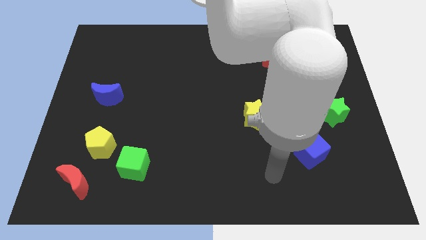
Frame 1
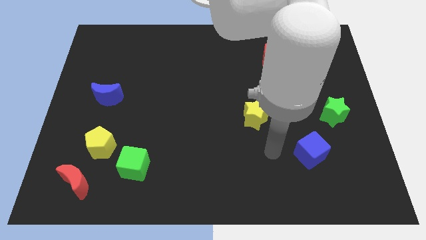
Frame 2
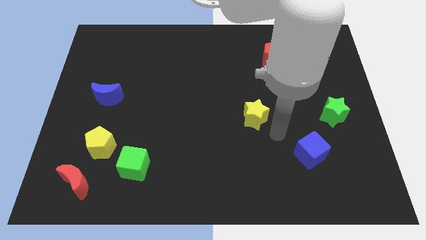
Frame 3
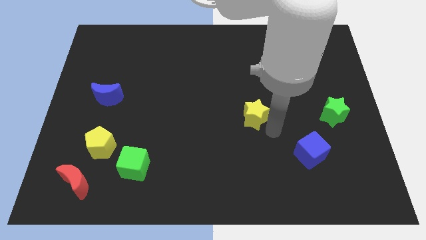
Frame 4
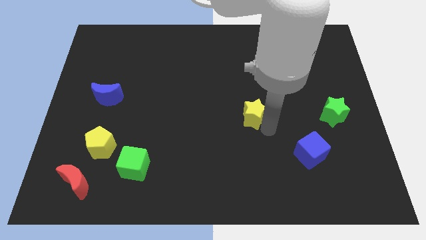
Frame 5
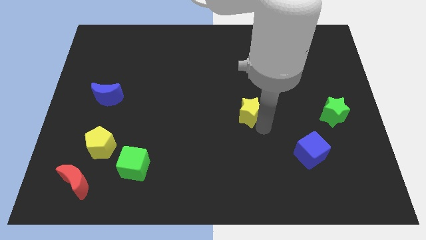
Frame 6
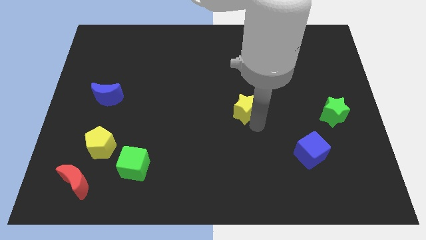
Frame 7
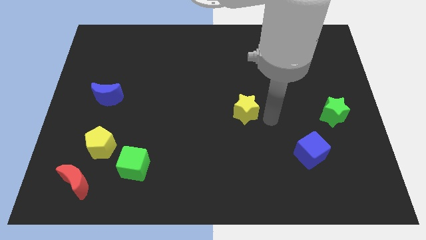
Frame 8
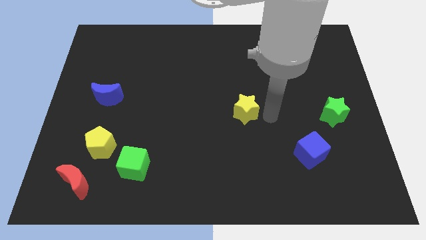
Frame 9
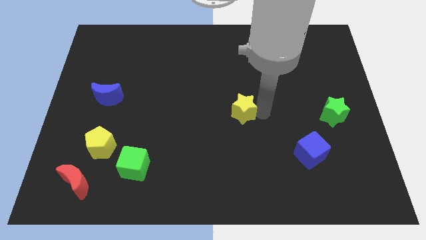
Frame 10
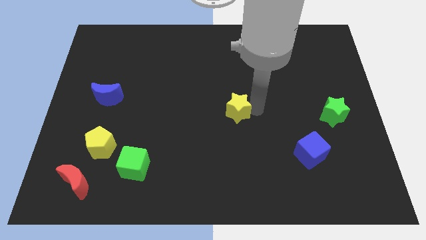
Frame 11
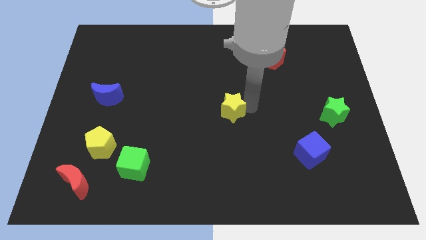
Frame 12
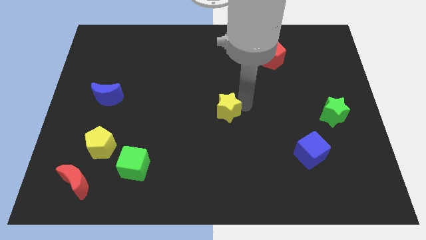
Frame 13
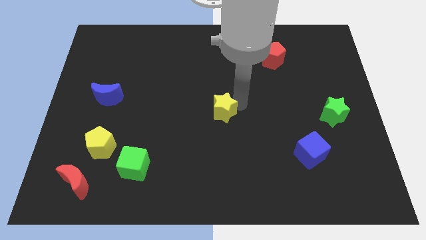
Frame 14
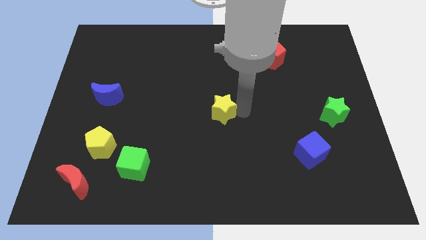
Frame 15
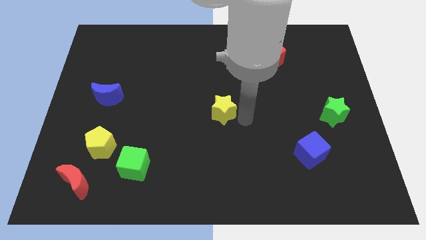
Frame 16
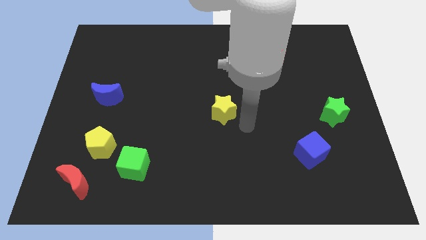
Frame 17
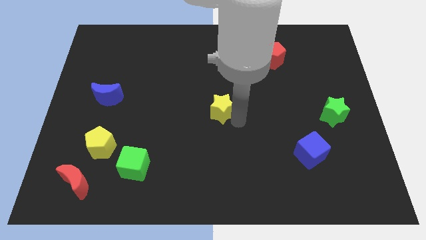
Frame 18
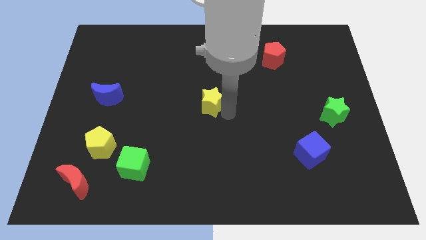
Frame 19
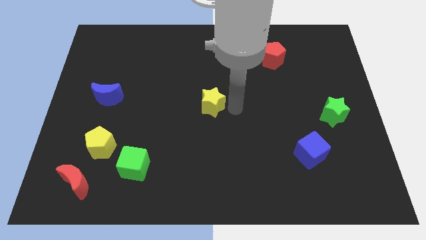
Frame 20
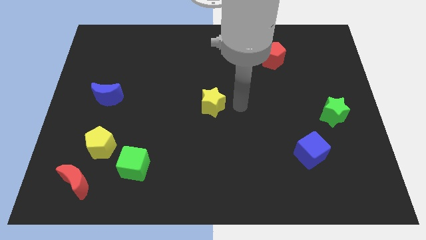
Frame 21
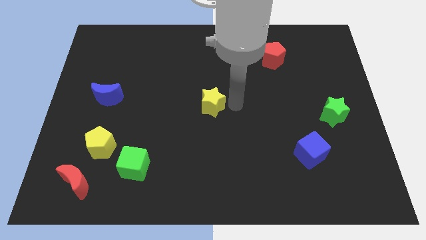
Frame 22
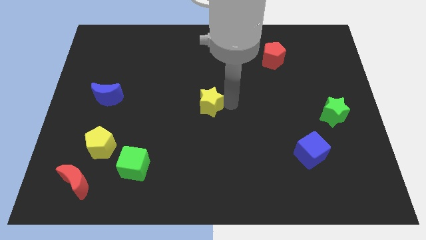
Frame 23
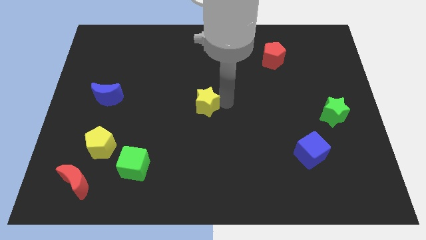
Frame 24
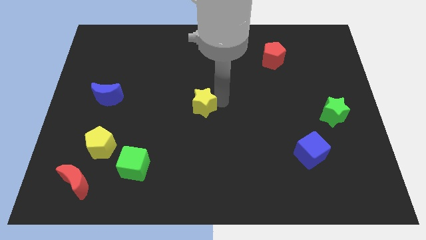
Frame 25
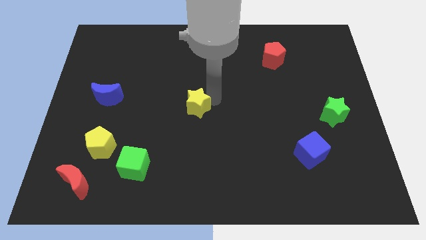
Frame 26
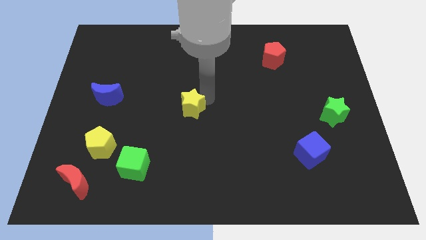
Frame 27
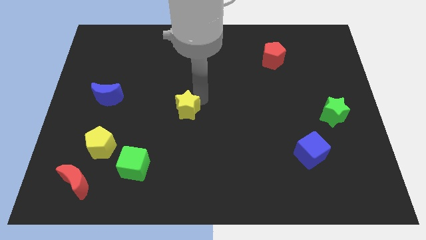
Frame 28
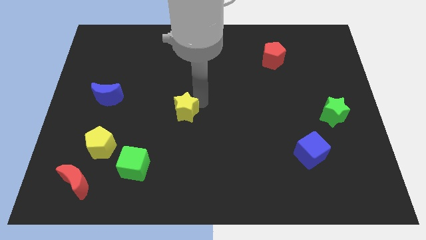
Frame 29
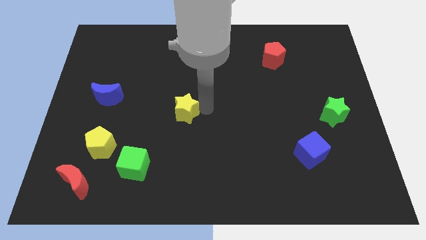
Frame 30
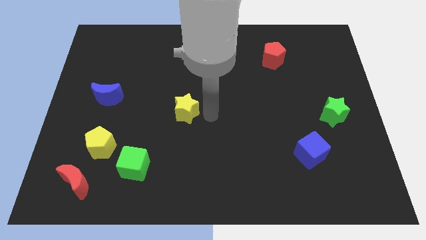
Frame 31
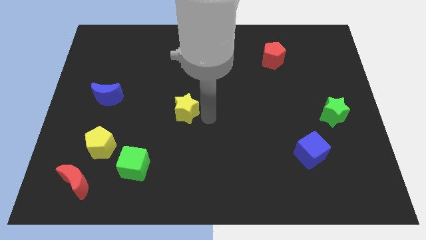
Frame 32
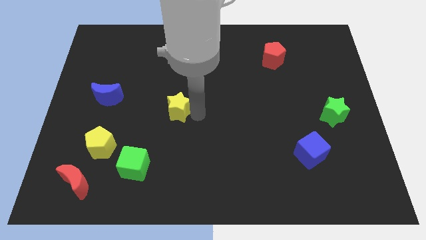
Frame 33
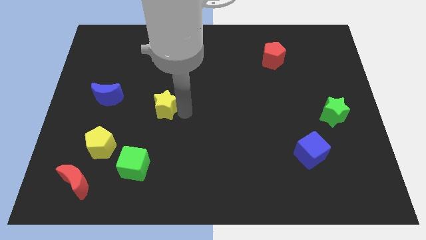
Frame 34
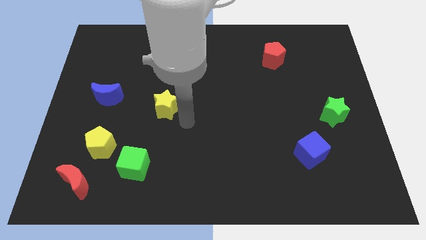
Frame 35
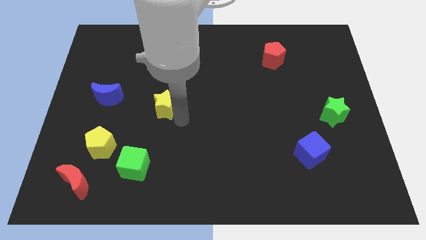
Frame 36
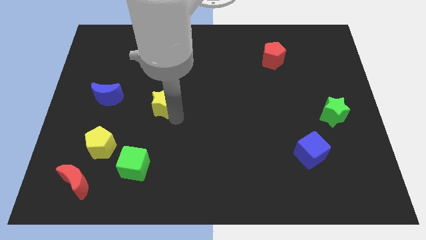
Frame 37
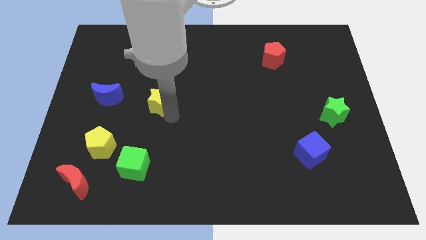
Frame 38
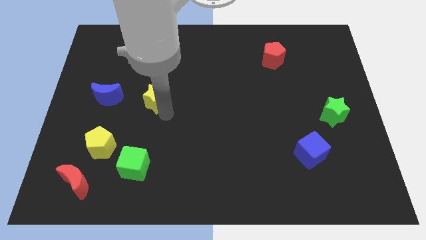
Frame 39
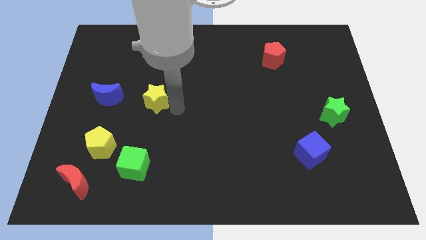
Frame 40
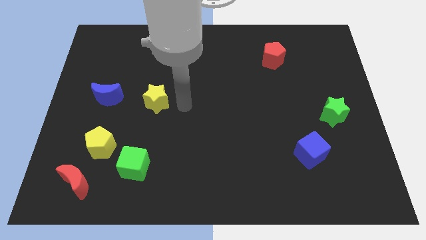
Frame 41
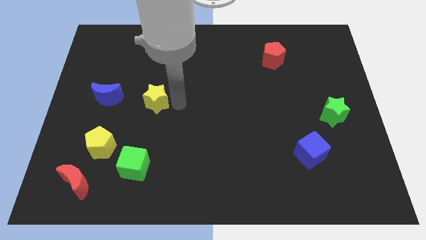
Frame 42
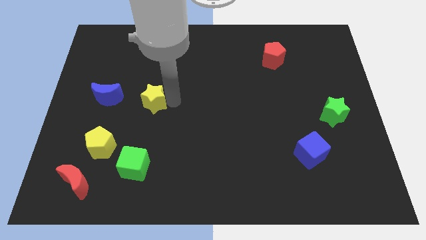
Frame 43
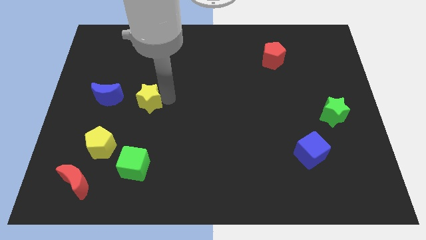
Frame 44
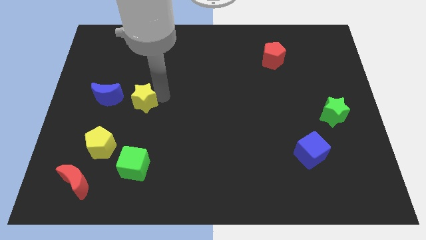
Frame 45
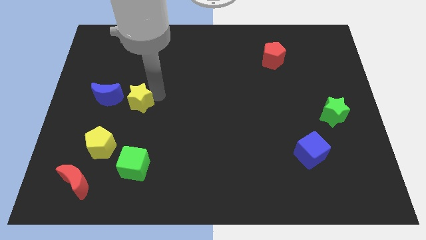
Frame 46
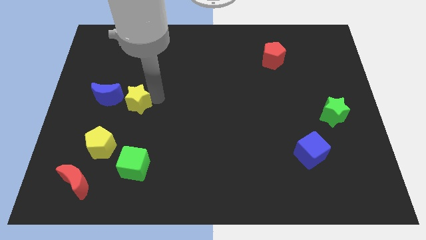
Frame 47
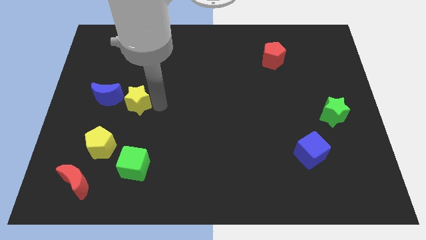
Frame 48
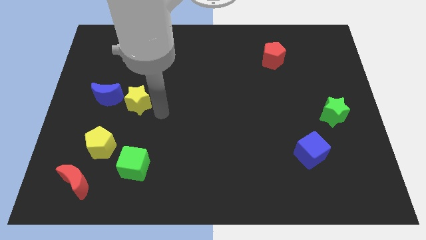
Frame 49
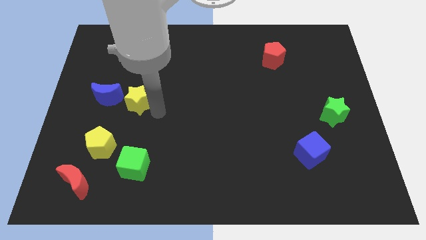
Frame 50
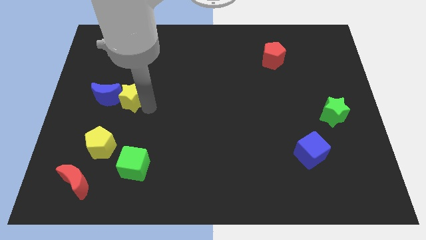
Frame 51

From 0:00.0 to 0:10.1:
put the yellow star to the blue moon

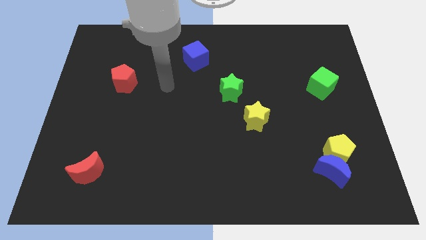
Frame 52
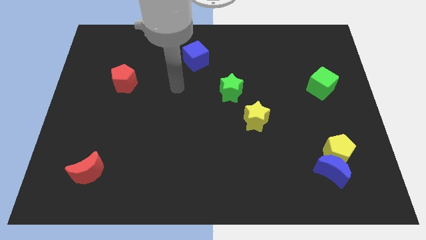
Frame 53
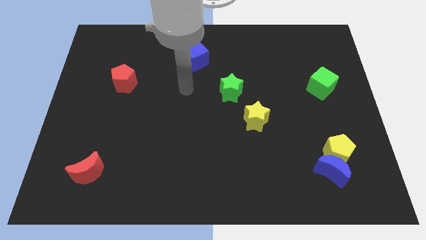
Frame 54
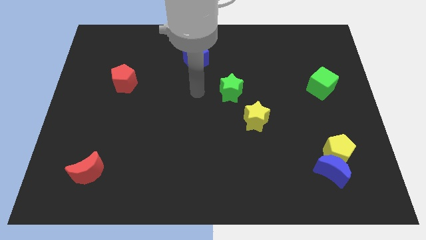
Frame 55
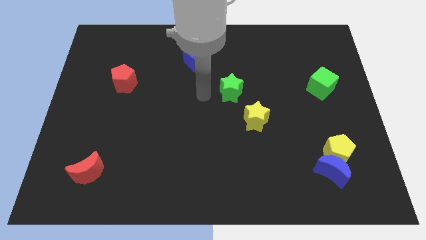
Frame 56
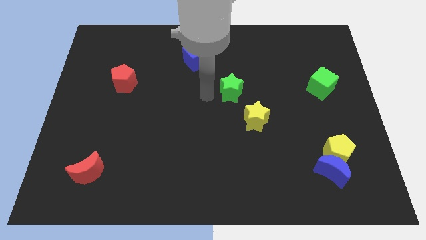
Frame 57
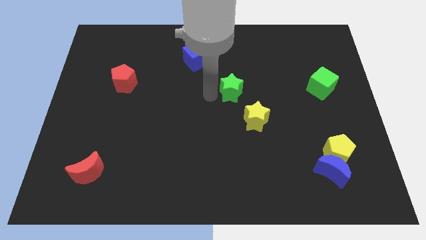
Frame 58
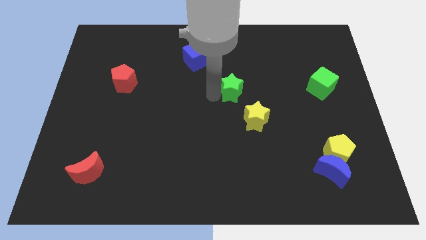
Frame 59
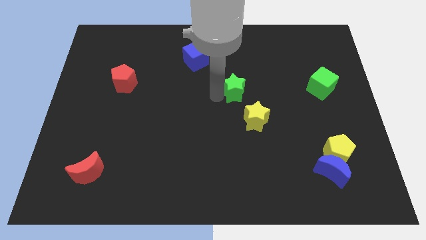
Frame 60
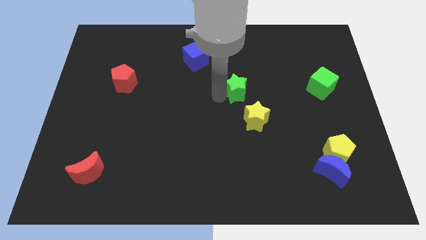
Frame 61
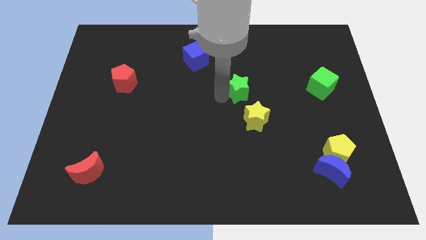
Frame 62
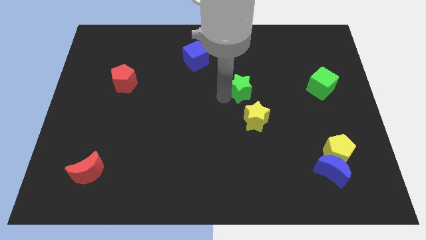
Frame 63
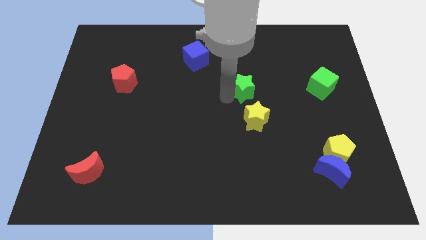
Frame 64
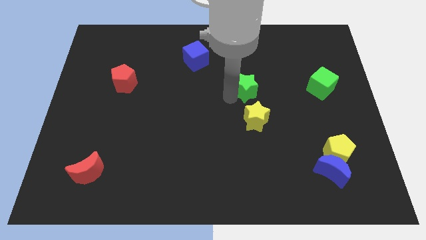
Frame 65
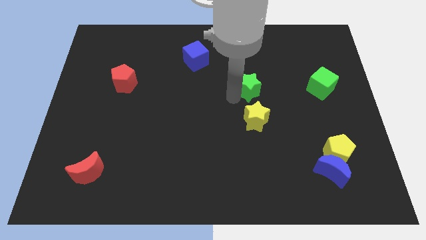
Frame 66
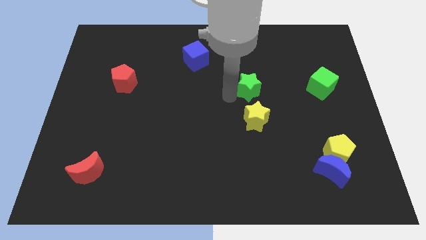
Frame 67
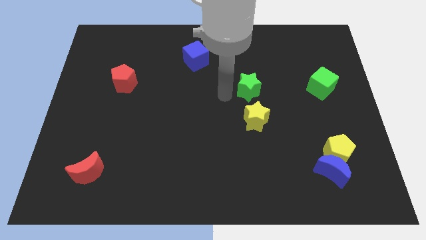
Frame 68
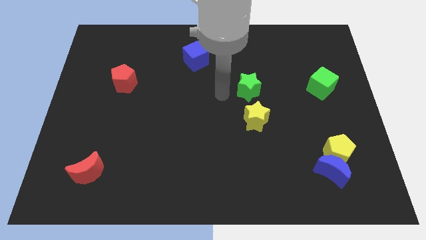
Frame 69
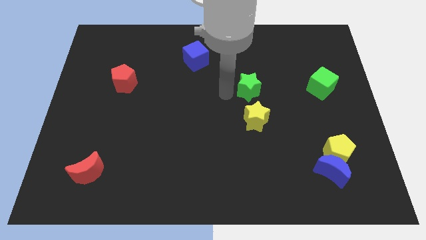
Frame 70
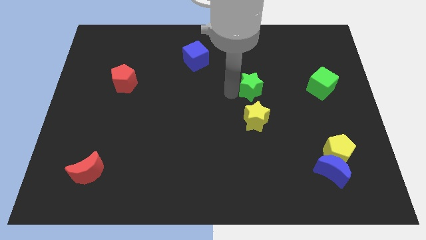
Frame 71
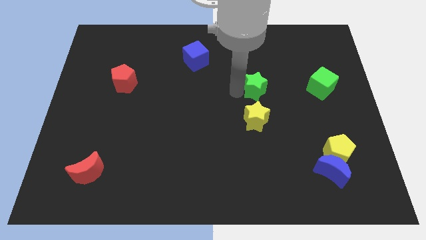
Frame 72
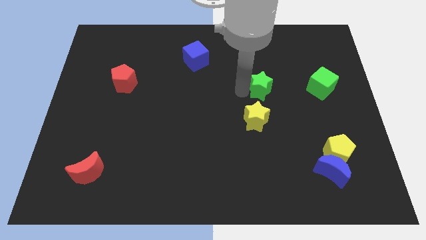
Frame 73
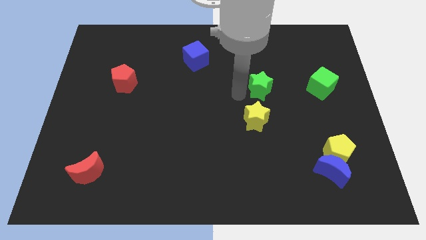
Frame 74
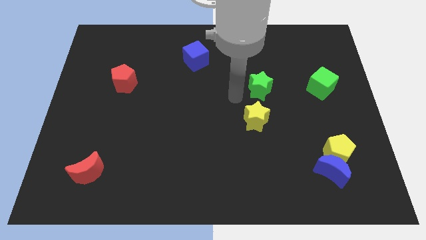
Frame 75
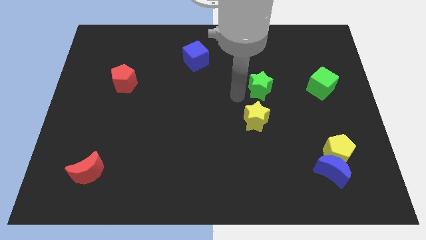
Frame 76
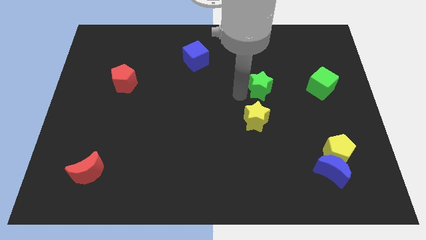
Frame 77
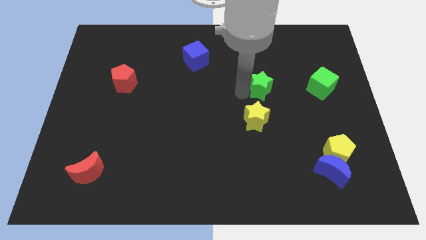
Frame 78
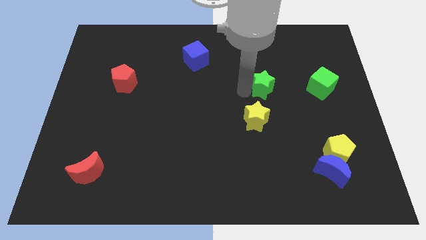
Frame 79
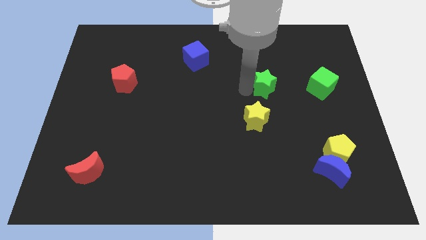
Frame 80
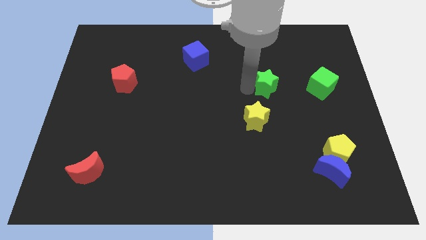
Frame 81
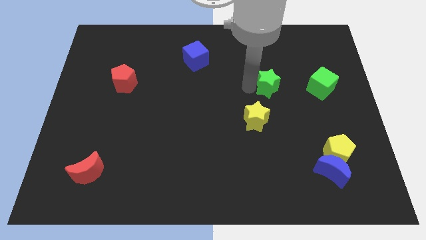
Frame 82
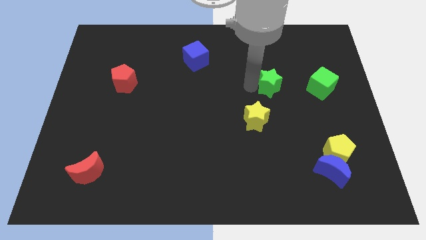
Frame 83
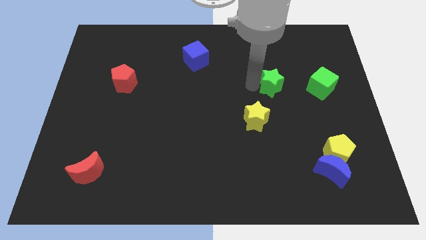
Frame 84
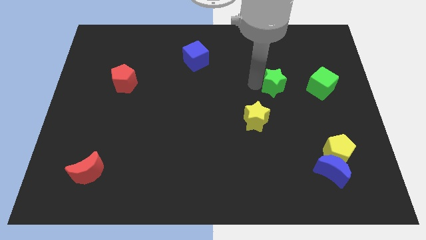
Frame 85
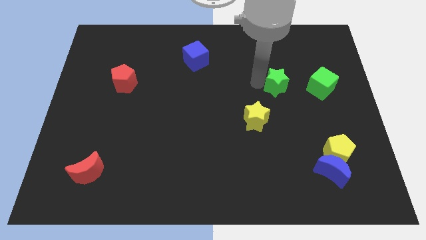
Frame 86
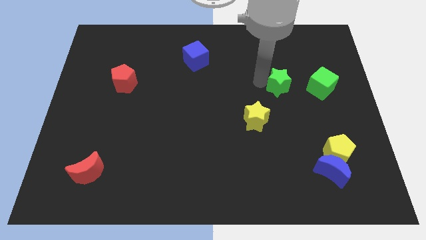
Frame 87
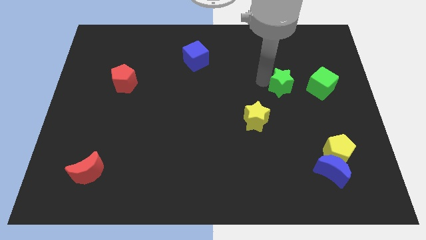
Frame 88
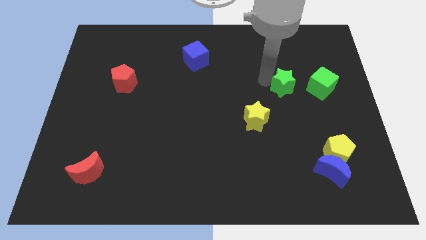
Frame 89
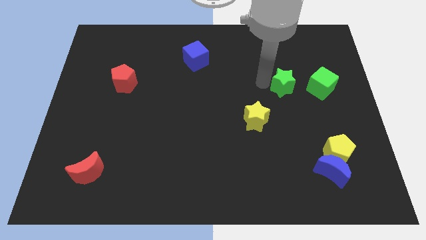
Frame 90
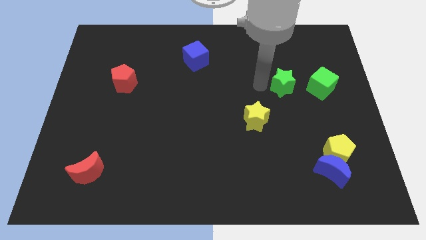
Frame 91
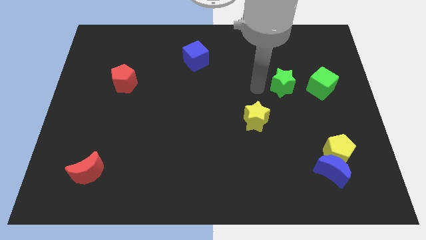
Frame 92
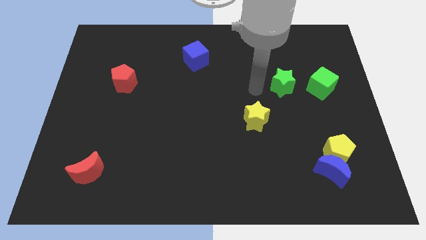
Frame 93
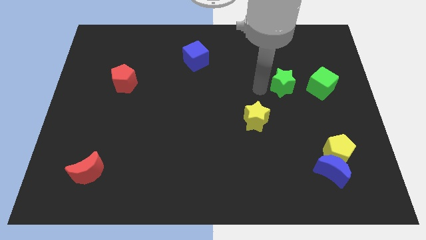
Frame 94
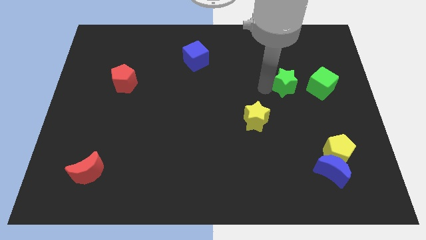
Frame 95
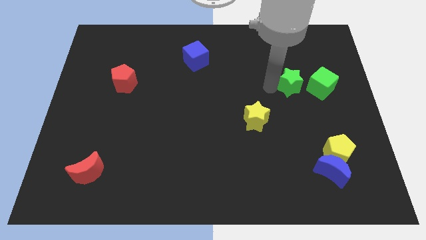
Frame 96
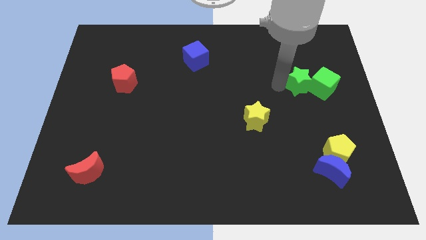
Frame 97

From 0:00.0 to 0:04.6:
put the green star close to the green cube
